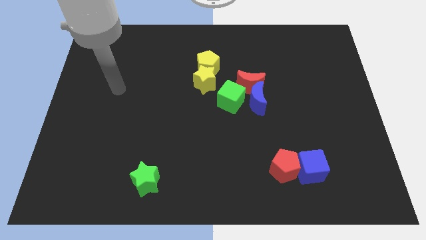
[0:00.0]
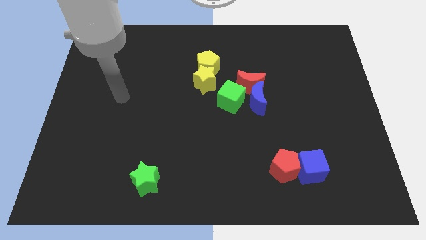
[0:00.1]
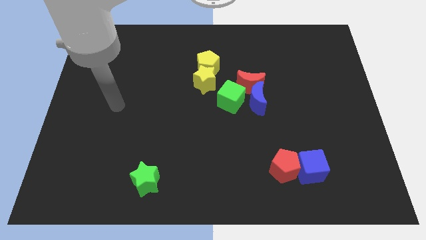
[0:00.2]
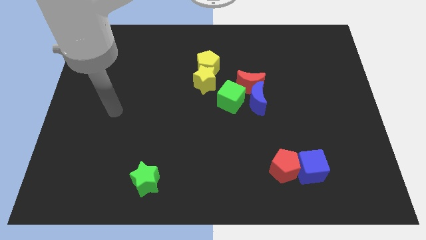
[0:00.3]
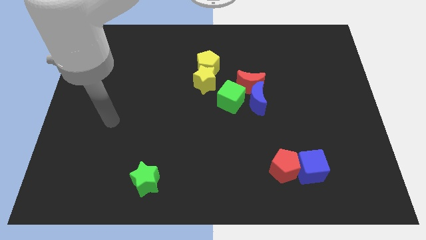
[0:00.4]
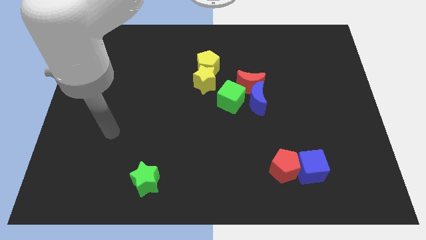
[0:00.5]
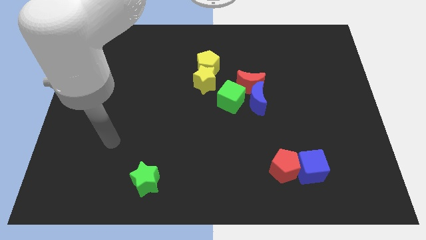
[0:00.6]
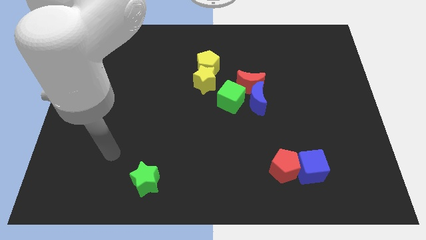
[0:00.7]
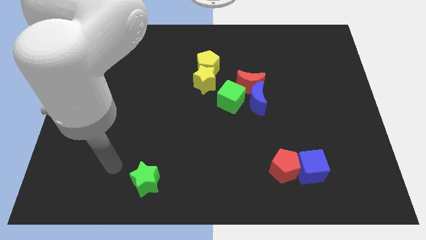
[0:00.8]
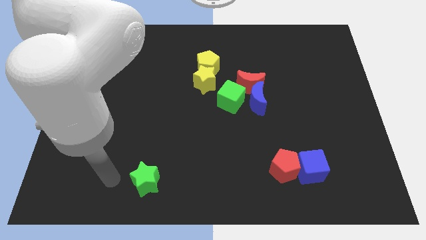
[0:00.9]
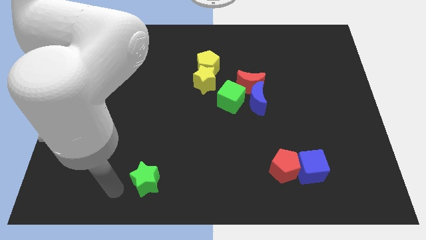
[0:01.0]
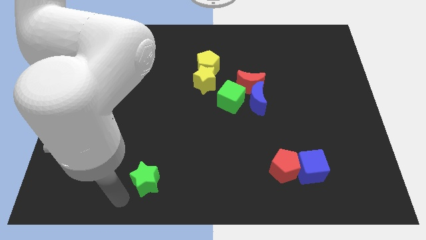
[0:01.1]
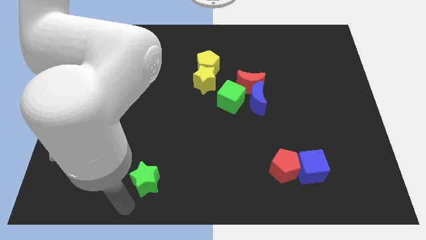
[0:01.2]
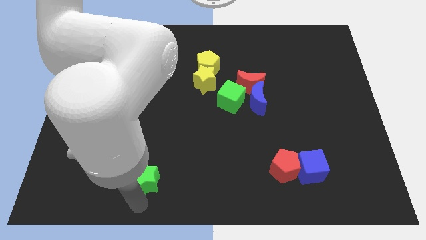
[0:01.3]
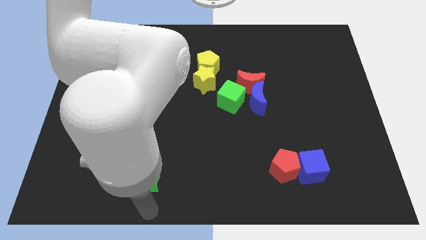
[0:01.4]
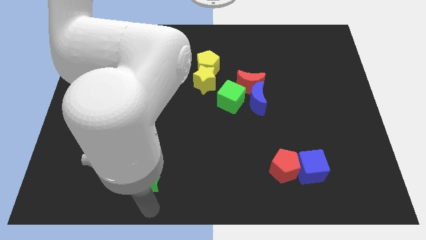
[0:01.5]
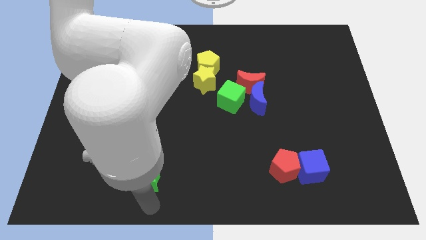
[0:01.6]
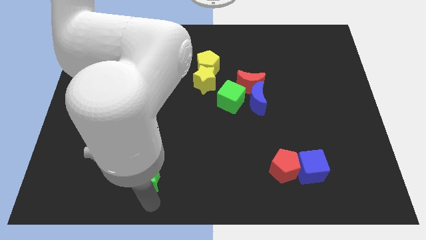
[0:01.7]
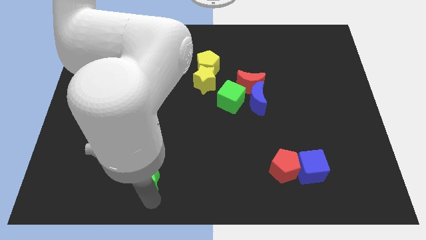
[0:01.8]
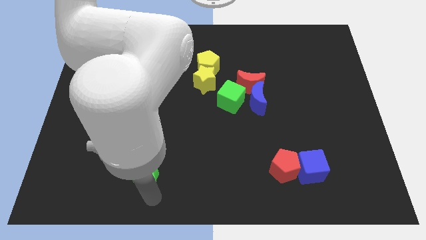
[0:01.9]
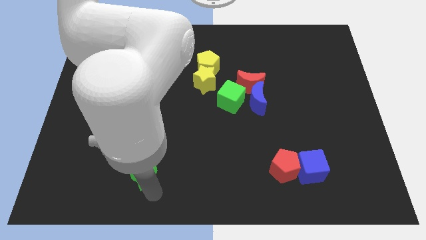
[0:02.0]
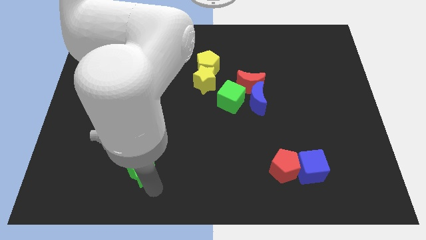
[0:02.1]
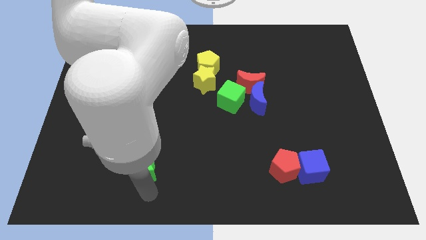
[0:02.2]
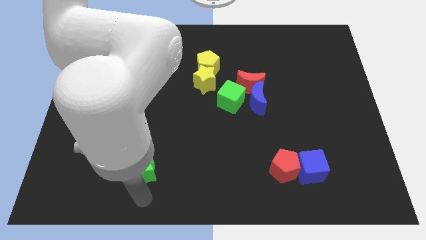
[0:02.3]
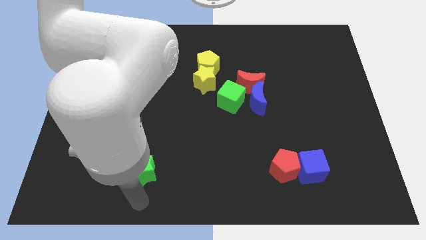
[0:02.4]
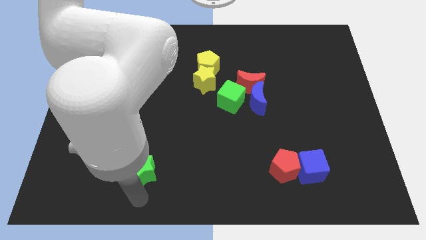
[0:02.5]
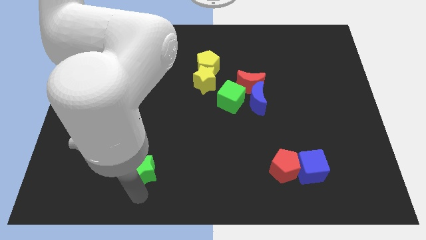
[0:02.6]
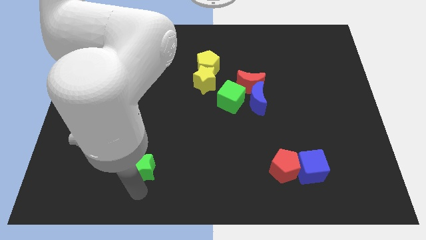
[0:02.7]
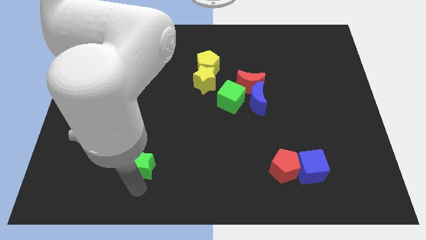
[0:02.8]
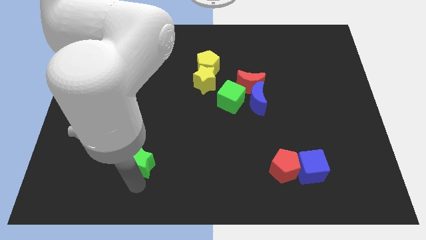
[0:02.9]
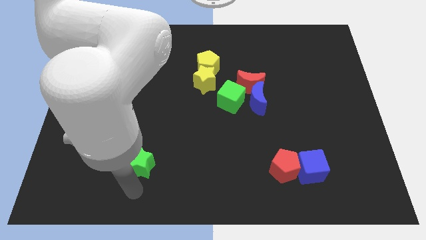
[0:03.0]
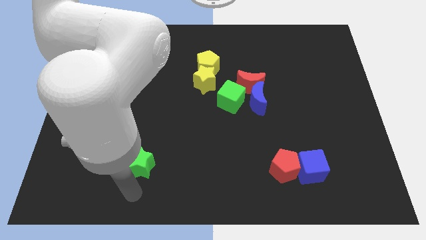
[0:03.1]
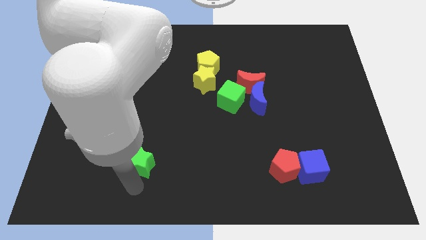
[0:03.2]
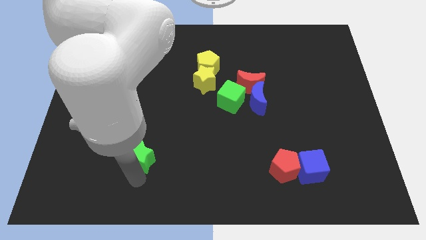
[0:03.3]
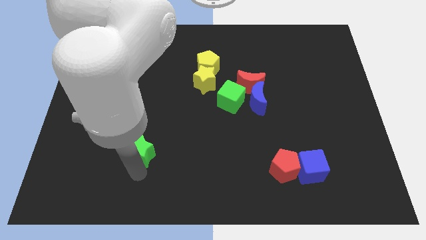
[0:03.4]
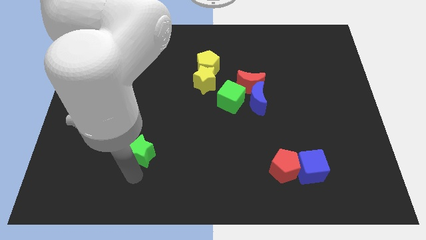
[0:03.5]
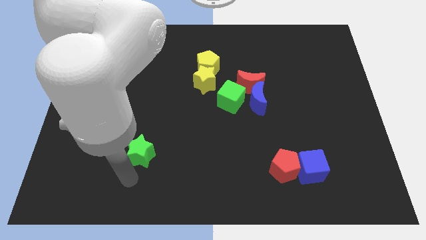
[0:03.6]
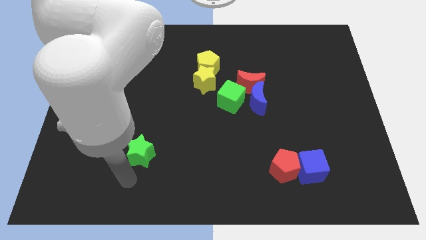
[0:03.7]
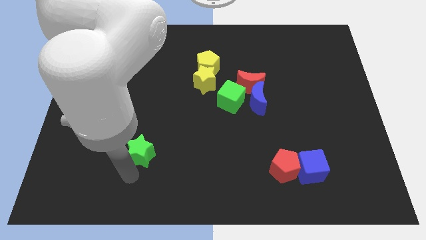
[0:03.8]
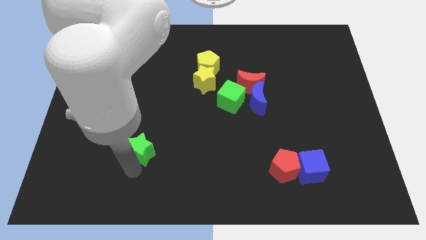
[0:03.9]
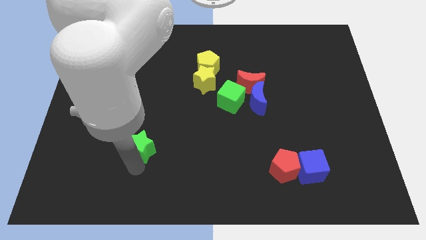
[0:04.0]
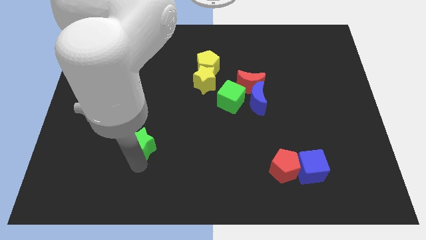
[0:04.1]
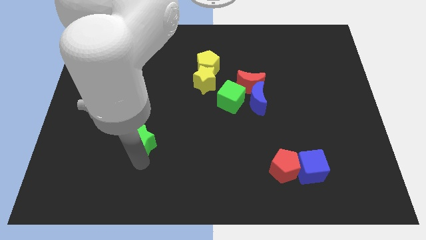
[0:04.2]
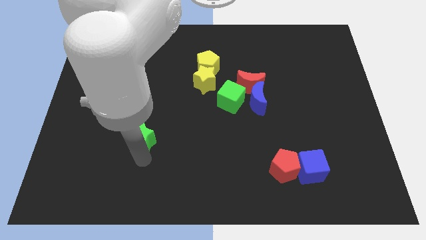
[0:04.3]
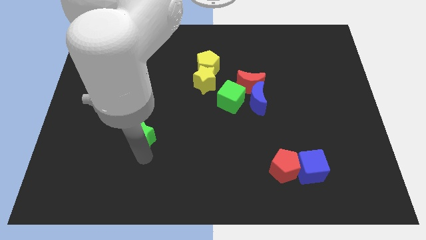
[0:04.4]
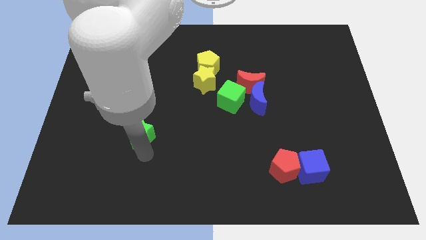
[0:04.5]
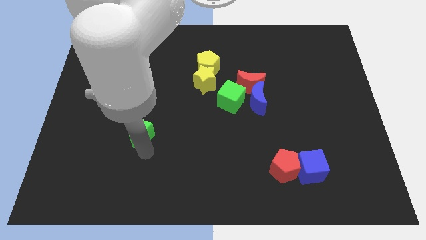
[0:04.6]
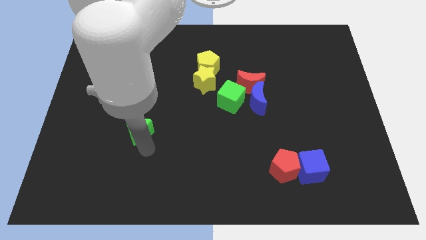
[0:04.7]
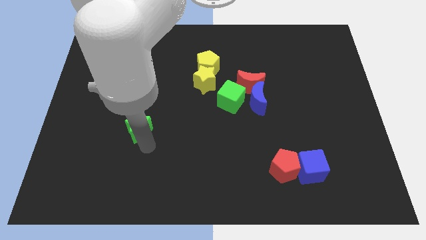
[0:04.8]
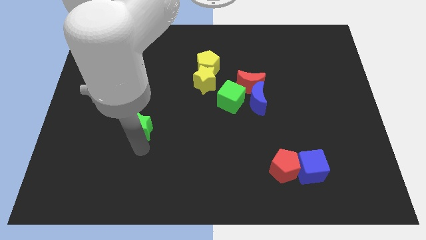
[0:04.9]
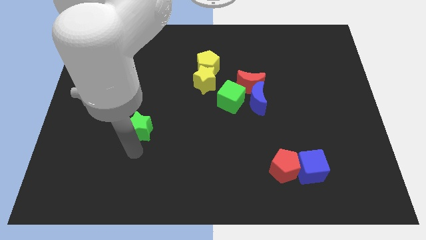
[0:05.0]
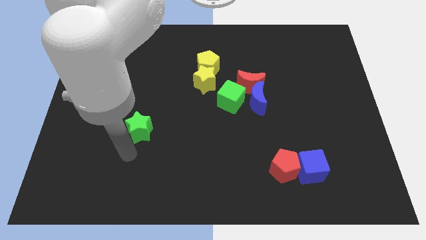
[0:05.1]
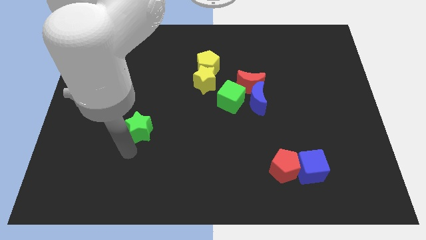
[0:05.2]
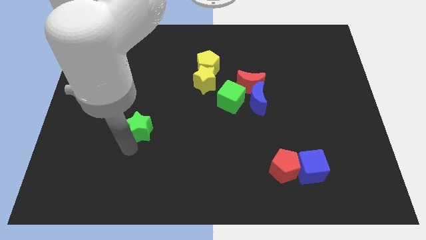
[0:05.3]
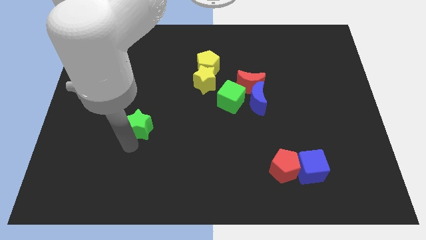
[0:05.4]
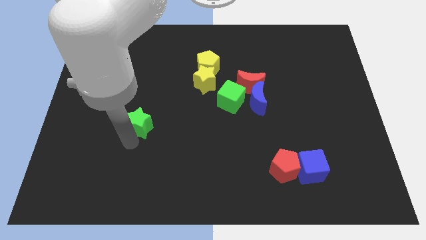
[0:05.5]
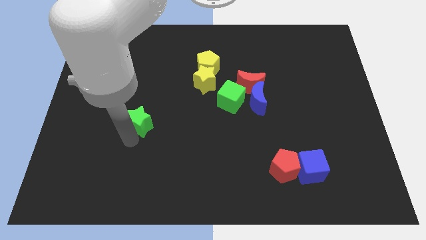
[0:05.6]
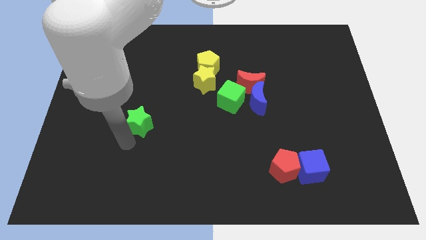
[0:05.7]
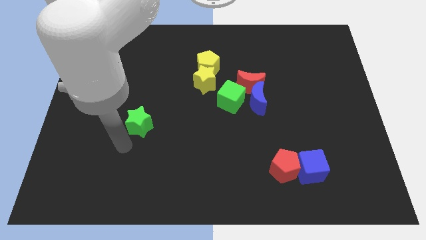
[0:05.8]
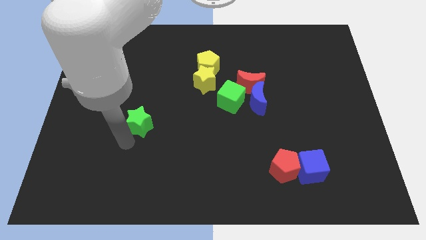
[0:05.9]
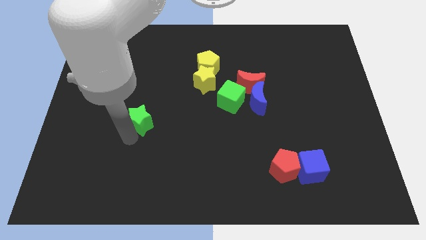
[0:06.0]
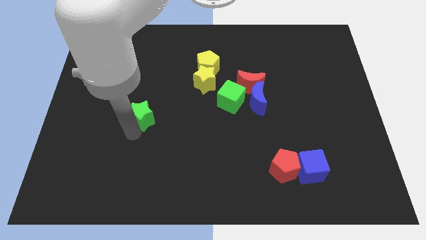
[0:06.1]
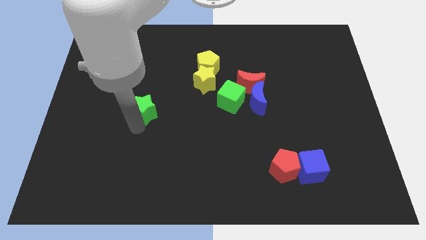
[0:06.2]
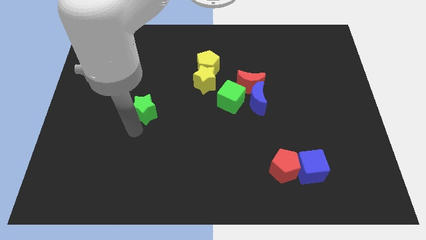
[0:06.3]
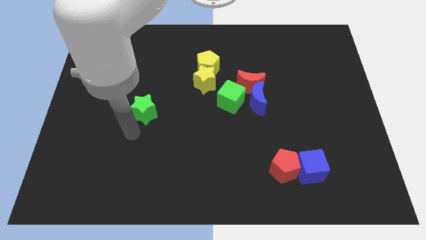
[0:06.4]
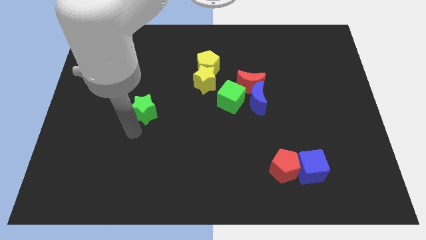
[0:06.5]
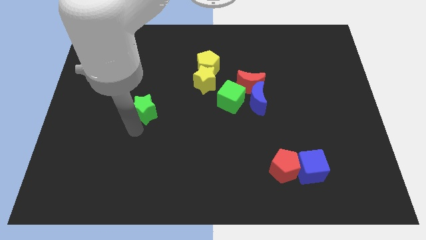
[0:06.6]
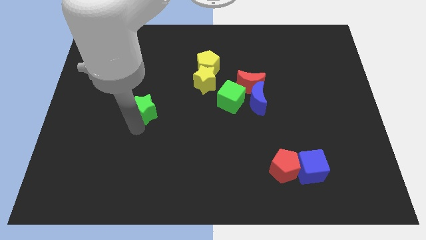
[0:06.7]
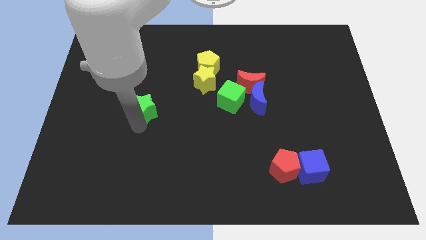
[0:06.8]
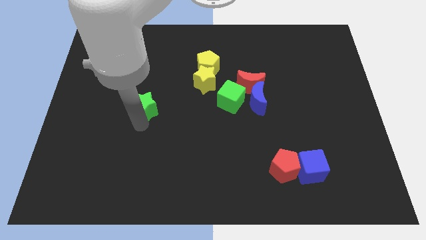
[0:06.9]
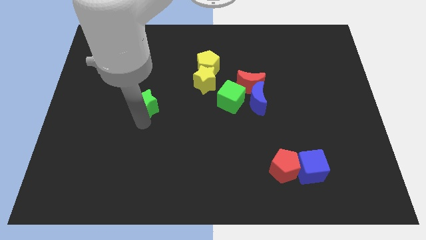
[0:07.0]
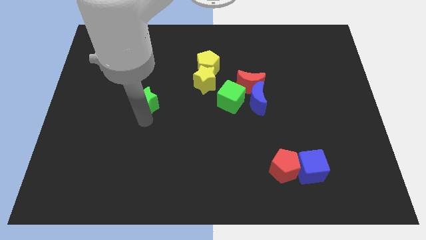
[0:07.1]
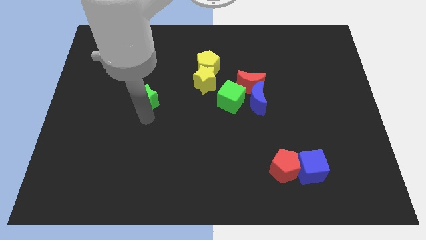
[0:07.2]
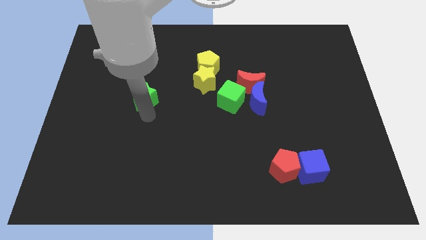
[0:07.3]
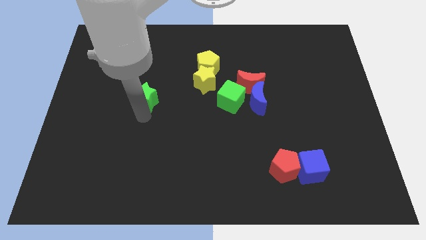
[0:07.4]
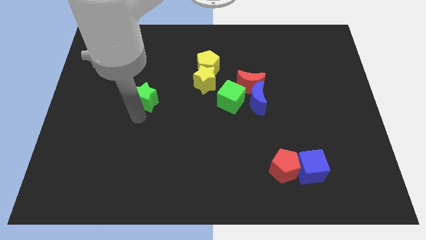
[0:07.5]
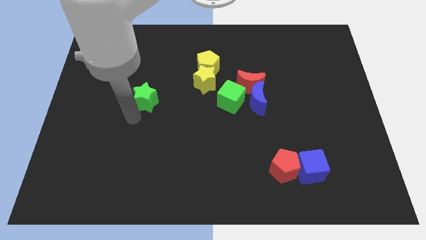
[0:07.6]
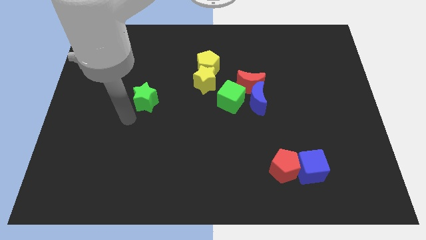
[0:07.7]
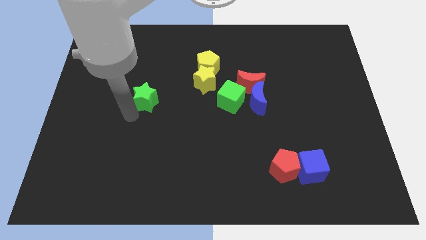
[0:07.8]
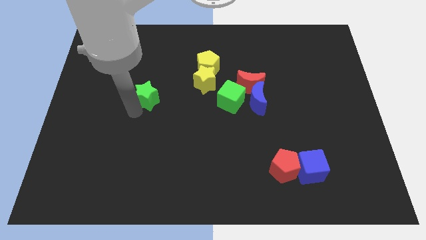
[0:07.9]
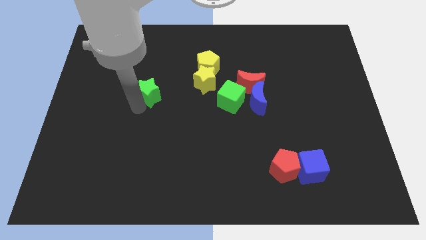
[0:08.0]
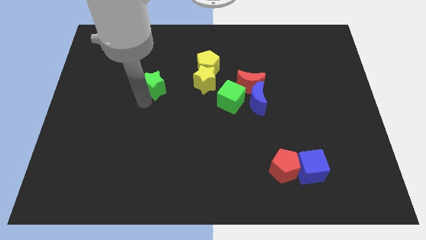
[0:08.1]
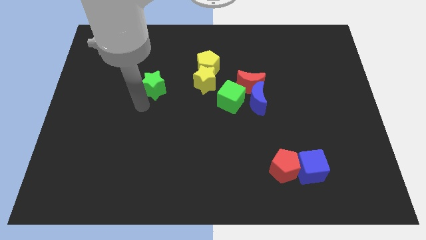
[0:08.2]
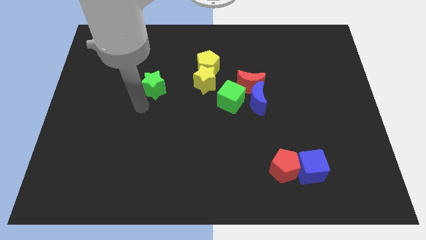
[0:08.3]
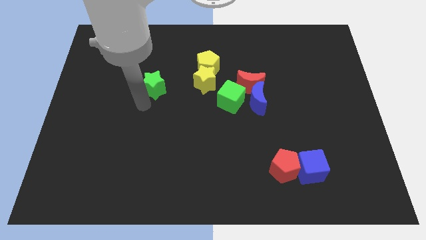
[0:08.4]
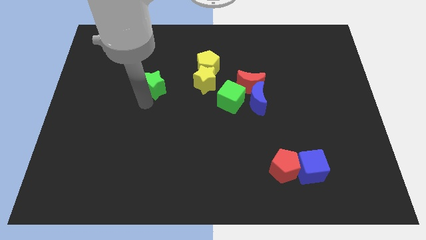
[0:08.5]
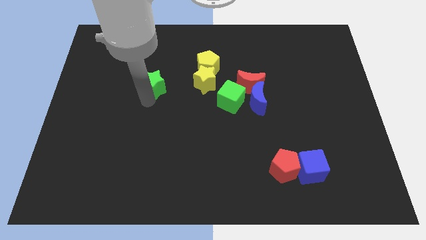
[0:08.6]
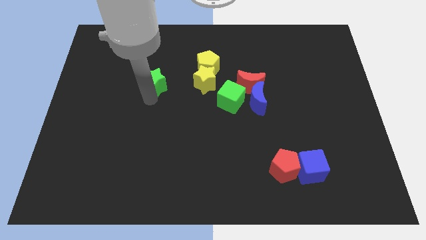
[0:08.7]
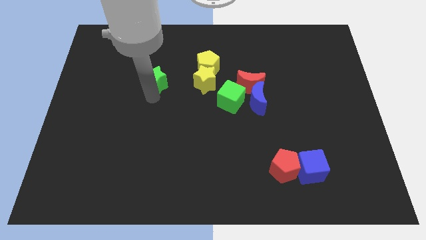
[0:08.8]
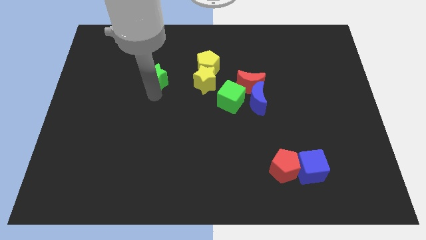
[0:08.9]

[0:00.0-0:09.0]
move the green star to the left side of the yellow pentagon
